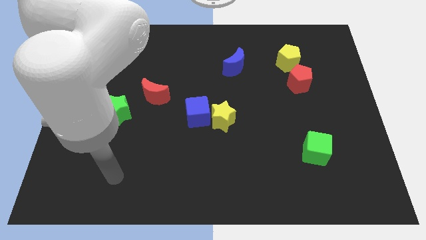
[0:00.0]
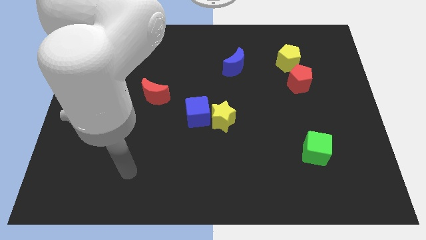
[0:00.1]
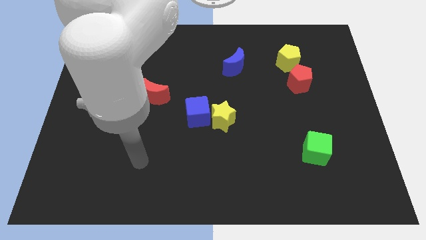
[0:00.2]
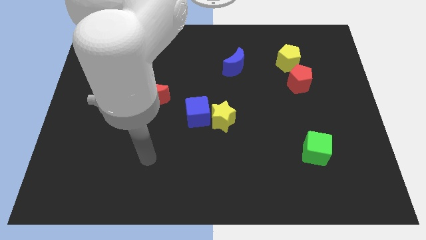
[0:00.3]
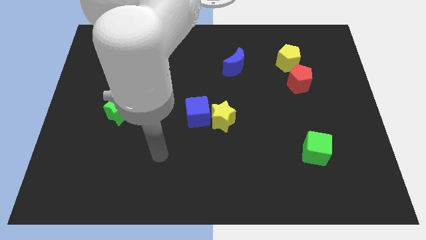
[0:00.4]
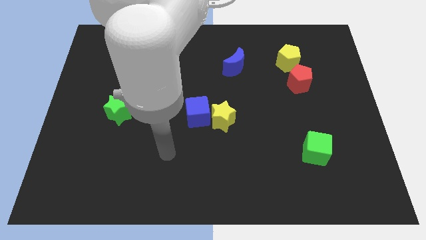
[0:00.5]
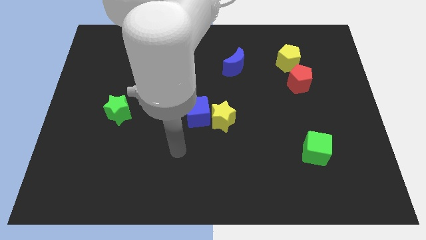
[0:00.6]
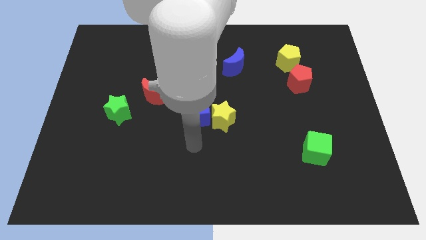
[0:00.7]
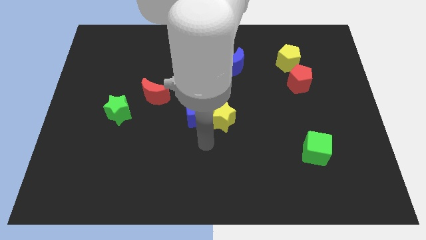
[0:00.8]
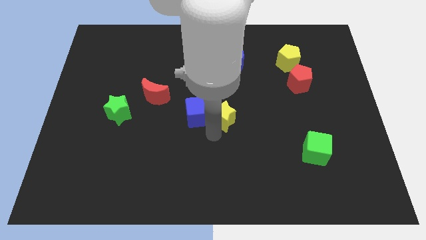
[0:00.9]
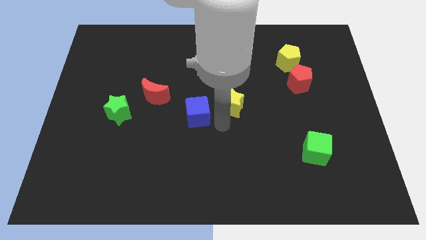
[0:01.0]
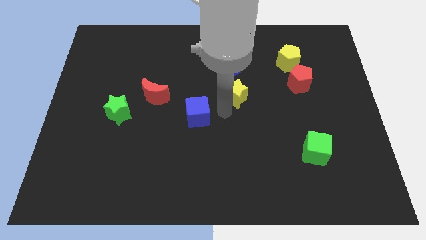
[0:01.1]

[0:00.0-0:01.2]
move the blue cube away from the yellow star

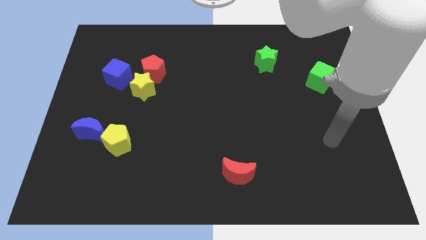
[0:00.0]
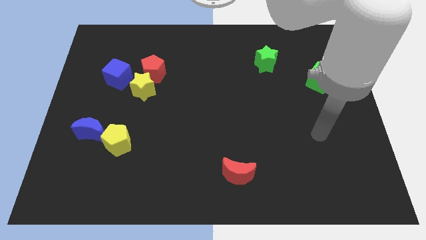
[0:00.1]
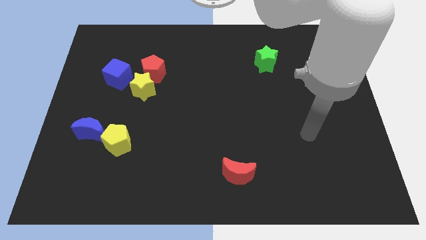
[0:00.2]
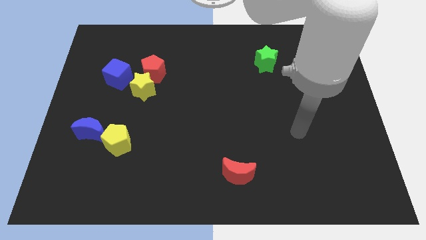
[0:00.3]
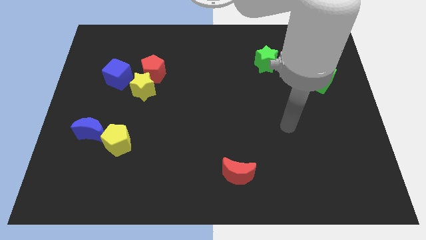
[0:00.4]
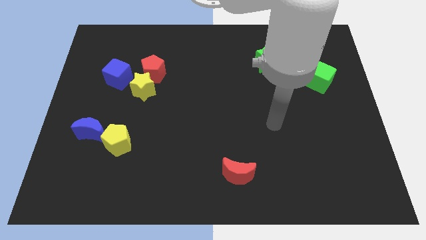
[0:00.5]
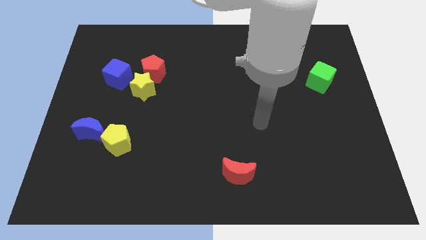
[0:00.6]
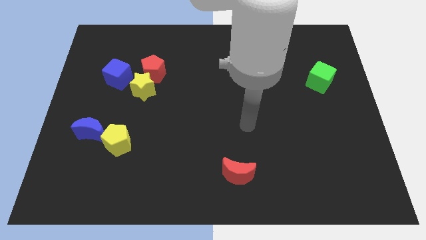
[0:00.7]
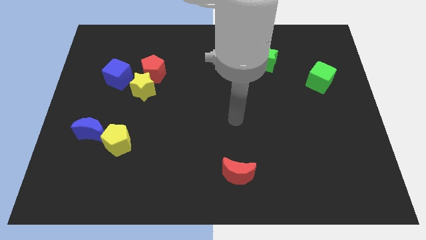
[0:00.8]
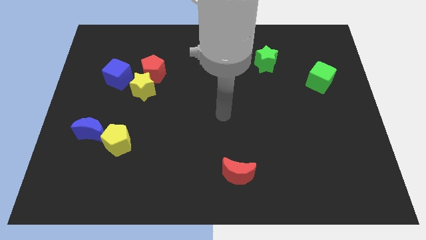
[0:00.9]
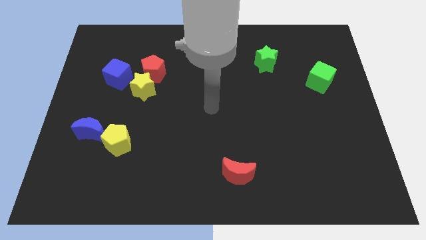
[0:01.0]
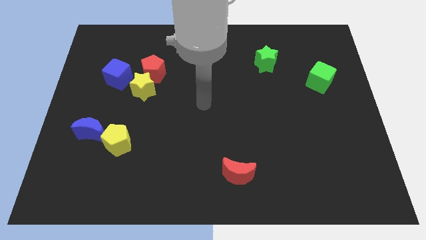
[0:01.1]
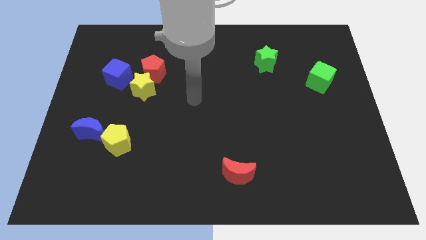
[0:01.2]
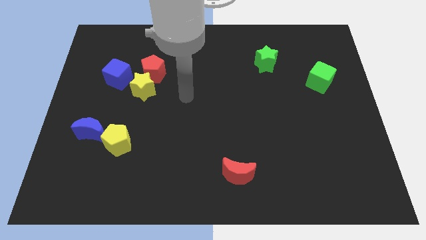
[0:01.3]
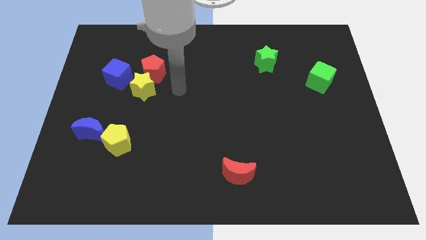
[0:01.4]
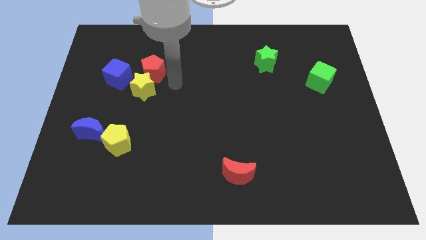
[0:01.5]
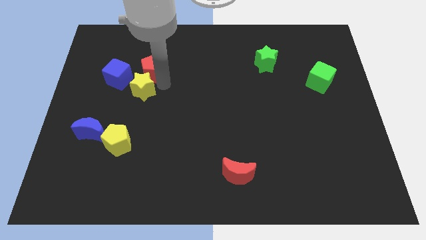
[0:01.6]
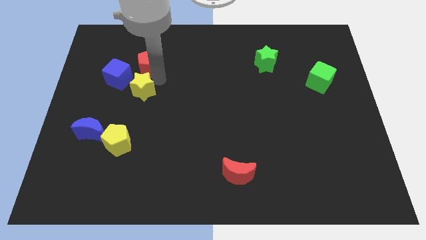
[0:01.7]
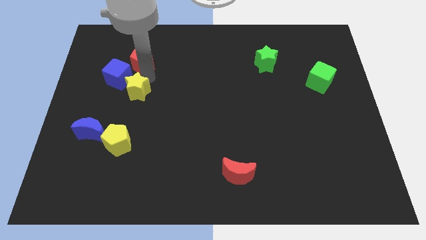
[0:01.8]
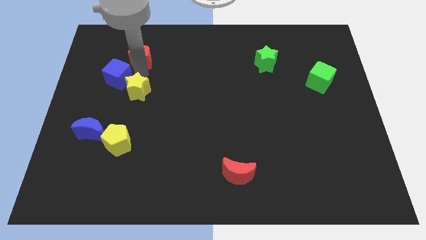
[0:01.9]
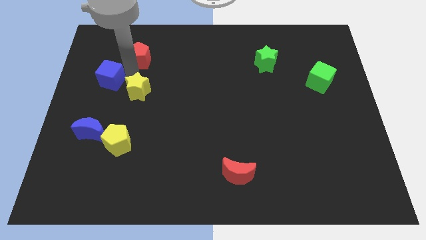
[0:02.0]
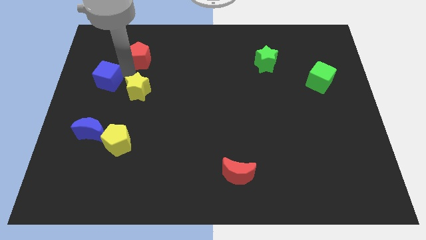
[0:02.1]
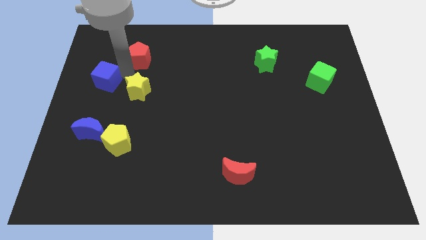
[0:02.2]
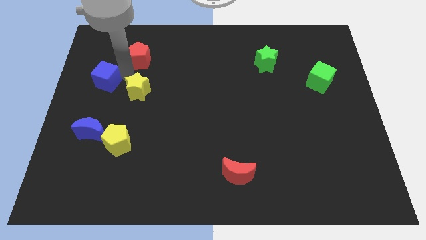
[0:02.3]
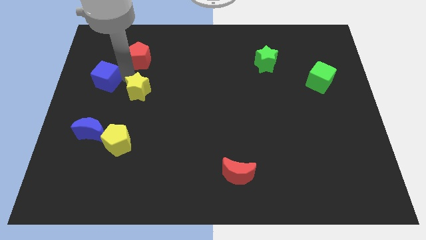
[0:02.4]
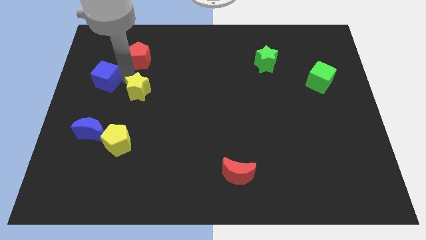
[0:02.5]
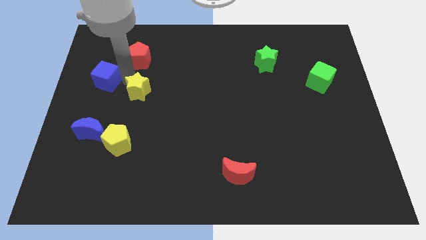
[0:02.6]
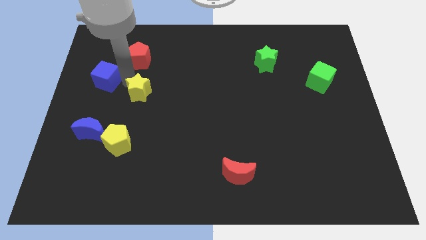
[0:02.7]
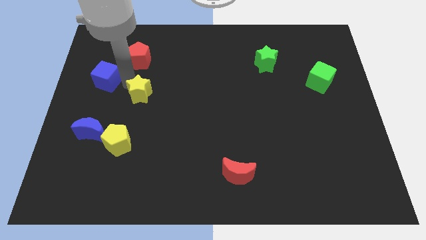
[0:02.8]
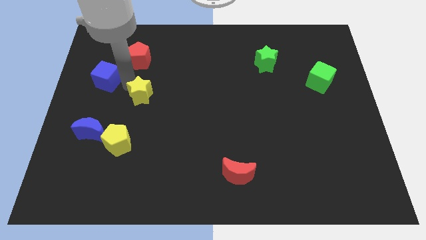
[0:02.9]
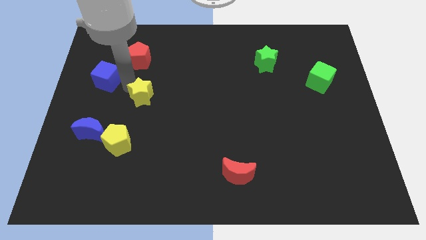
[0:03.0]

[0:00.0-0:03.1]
pull the yellow star apart from the red pentagon and blue cube

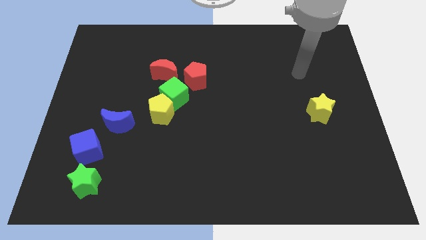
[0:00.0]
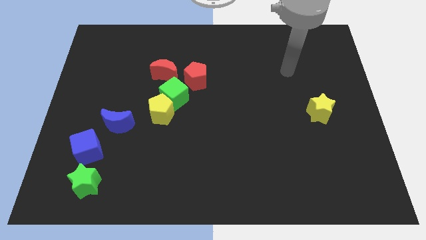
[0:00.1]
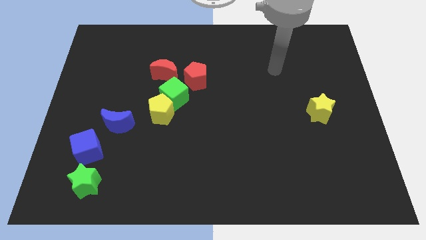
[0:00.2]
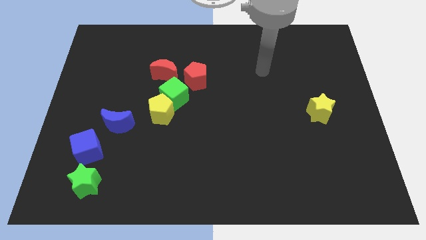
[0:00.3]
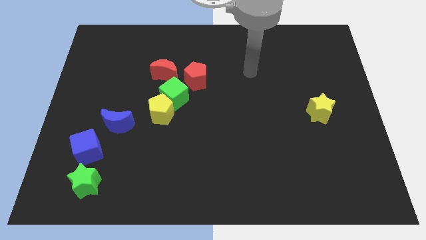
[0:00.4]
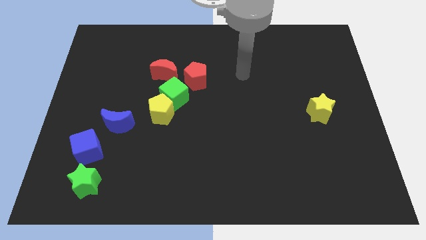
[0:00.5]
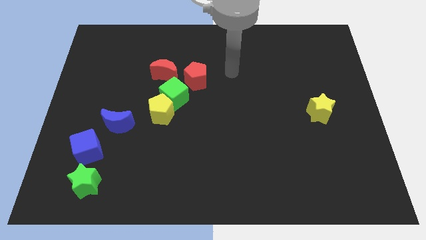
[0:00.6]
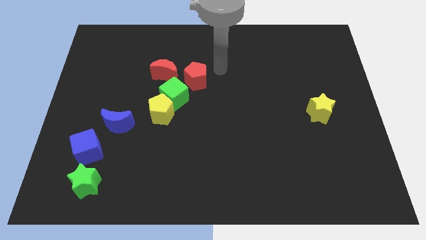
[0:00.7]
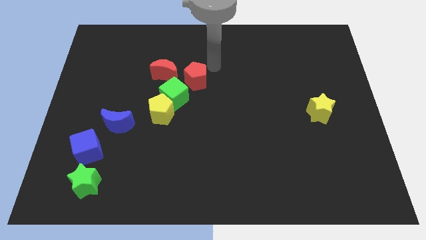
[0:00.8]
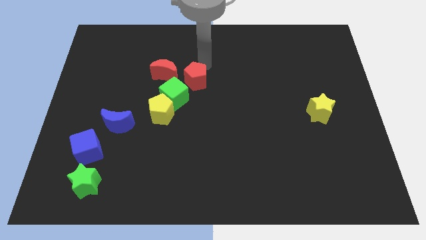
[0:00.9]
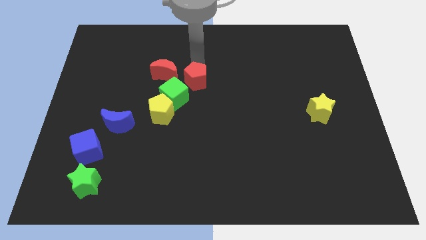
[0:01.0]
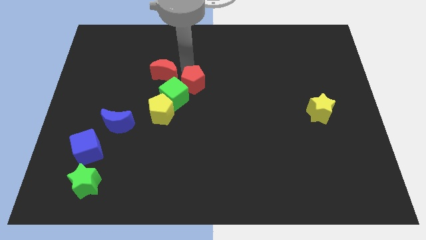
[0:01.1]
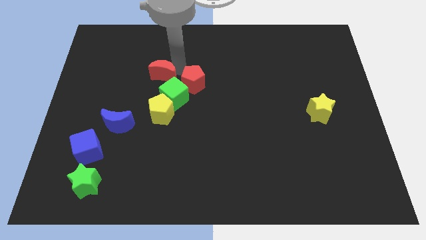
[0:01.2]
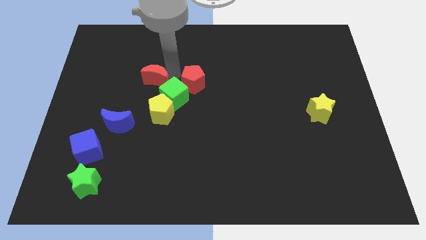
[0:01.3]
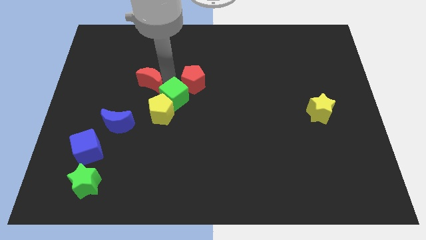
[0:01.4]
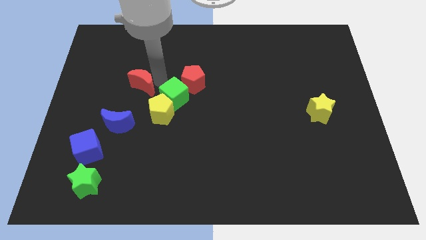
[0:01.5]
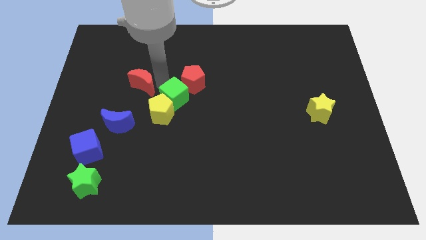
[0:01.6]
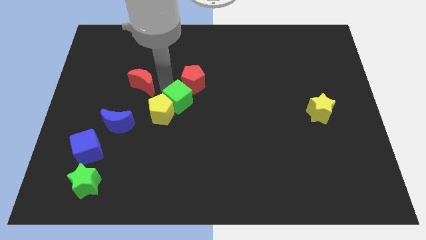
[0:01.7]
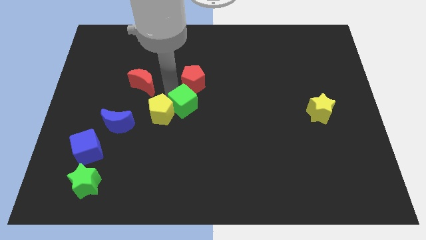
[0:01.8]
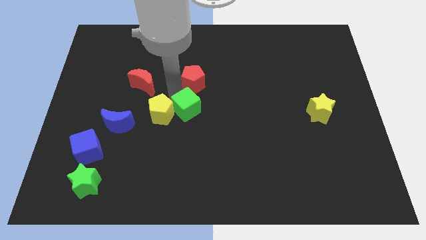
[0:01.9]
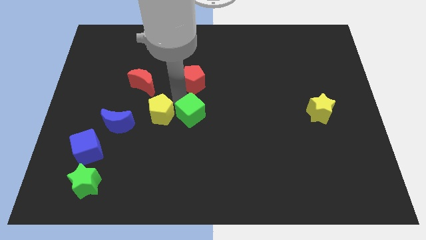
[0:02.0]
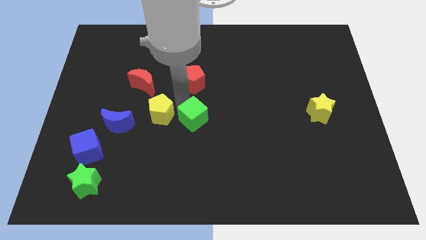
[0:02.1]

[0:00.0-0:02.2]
pull the green cube apart from the yellow pentagon, red pentagon, and red moon

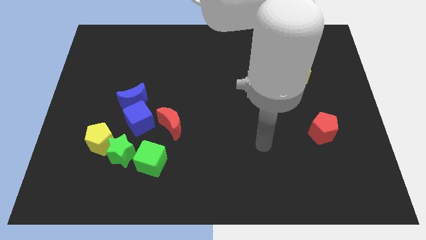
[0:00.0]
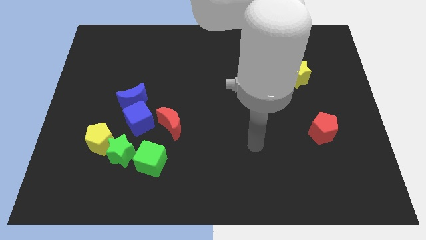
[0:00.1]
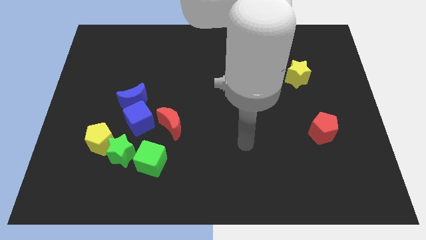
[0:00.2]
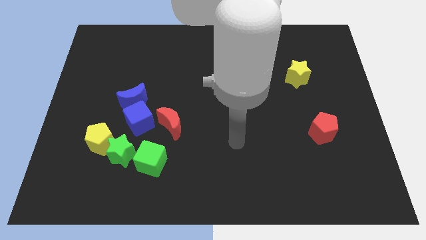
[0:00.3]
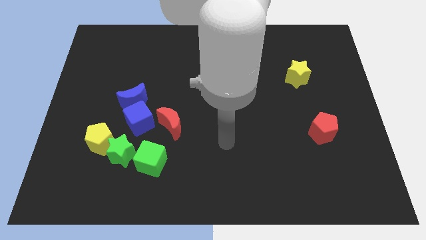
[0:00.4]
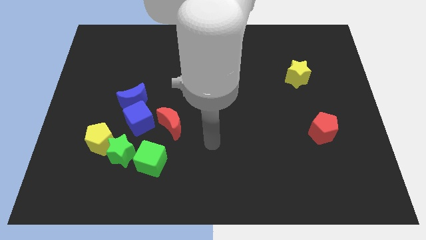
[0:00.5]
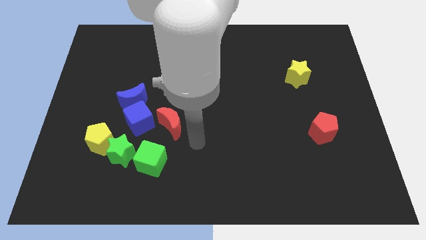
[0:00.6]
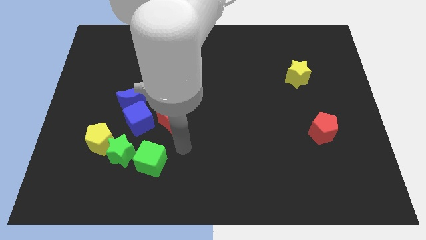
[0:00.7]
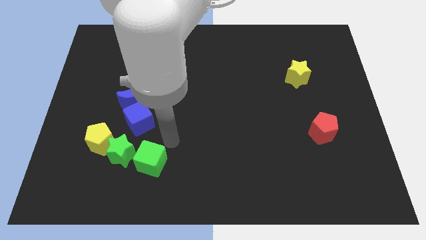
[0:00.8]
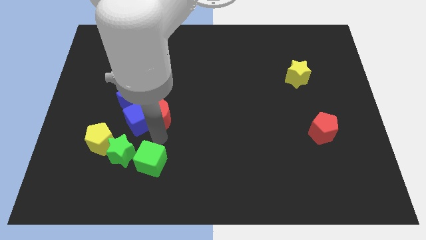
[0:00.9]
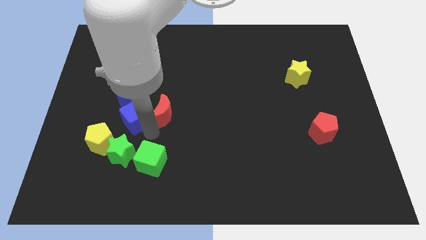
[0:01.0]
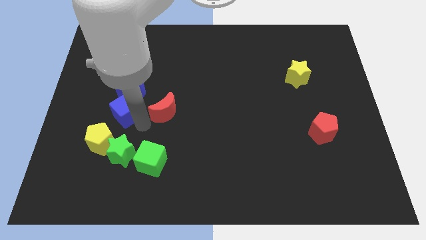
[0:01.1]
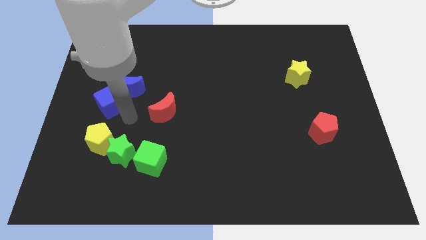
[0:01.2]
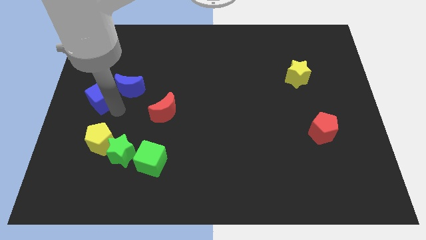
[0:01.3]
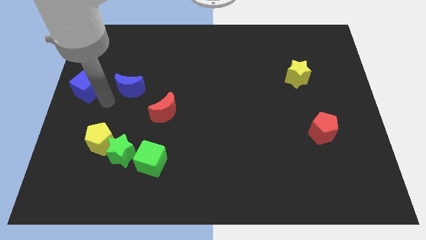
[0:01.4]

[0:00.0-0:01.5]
move the blue moon away from the blue cube

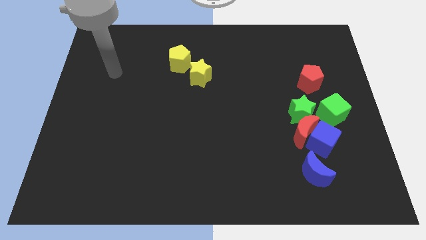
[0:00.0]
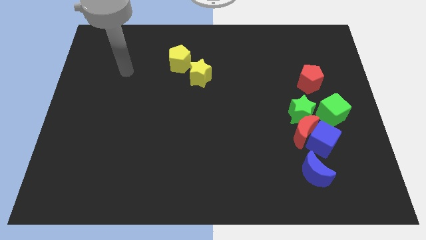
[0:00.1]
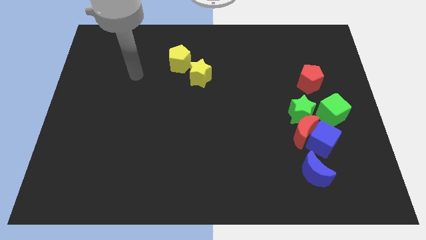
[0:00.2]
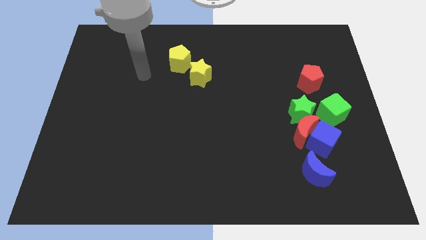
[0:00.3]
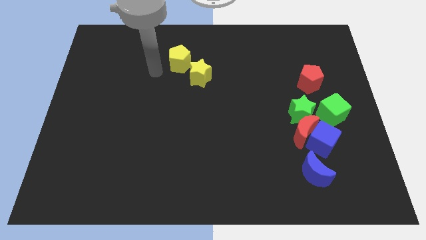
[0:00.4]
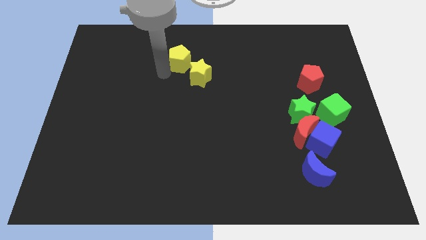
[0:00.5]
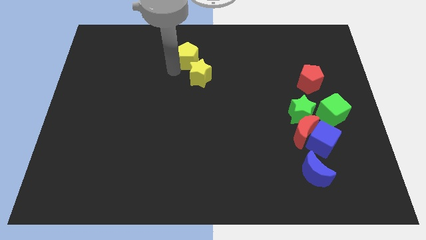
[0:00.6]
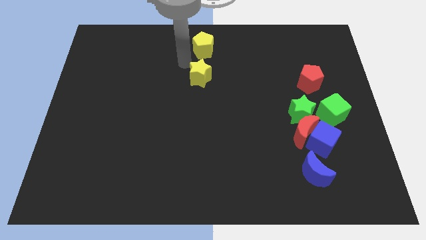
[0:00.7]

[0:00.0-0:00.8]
move the yellow star away from the yellow pentagon

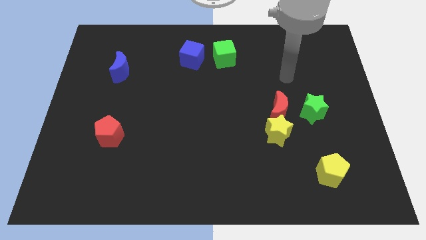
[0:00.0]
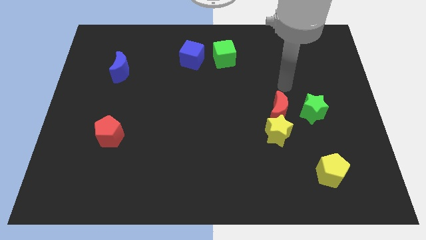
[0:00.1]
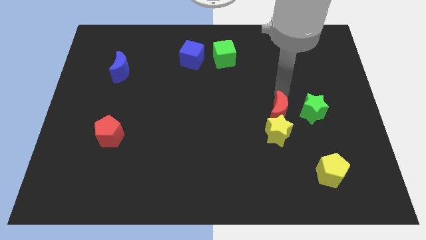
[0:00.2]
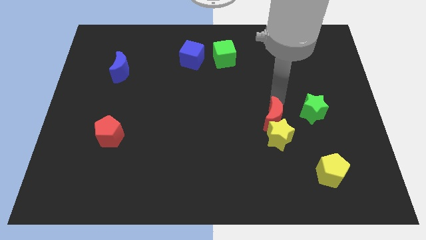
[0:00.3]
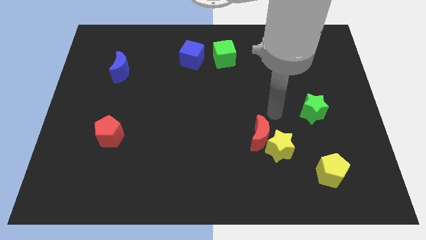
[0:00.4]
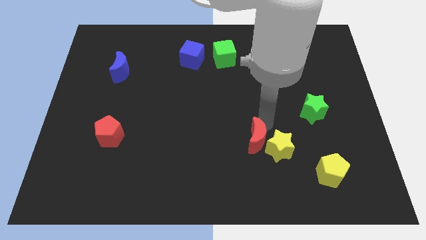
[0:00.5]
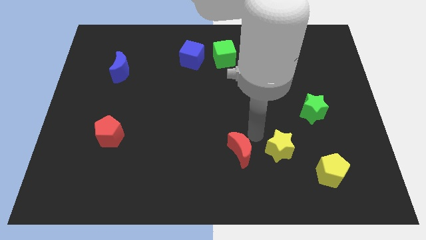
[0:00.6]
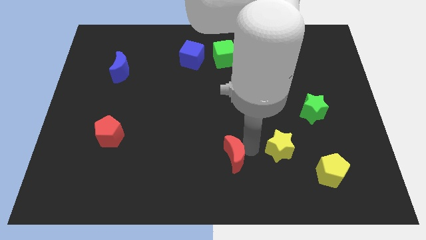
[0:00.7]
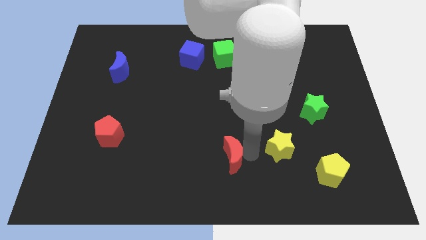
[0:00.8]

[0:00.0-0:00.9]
pull the yellow star apart from the red moon
